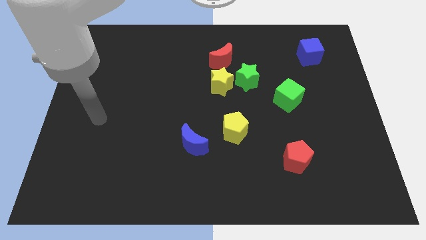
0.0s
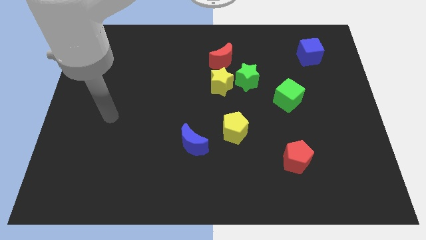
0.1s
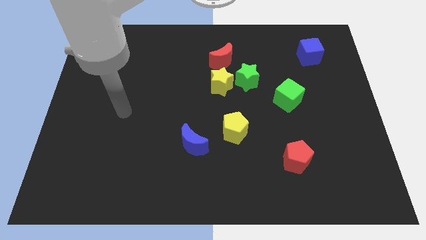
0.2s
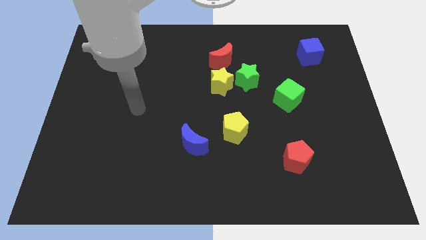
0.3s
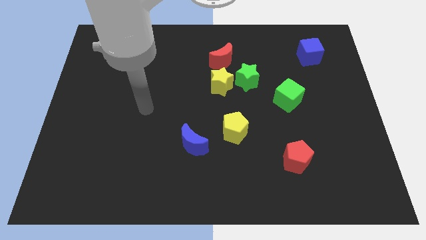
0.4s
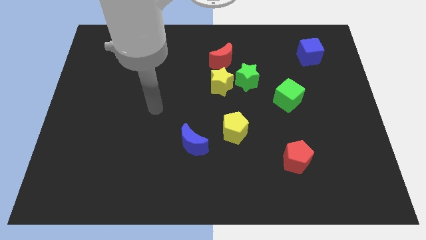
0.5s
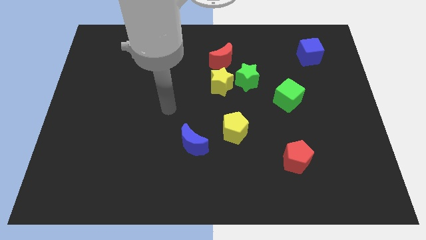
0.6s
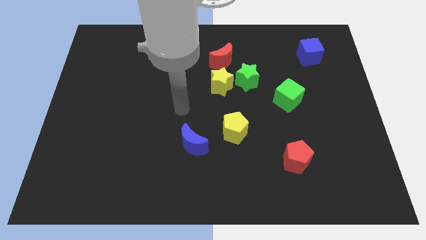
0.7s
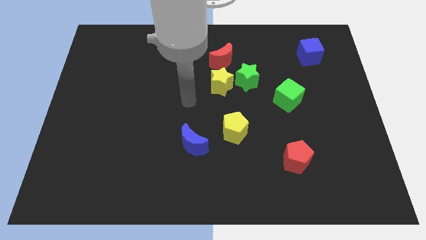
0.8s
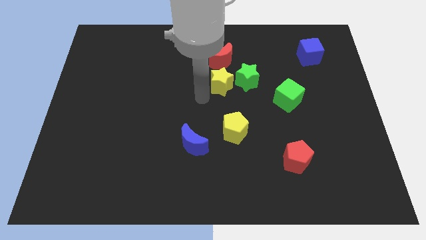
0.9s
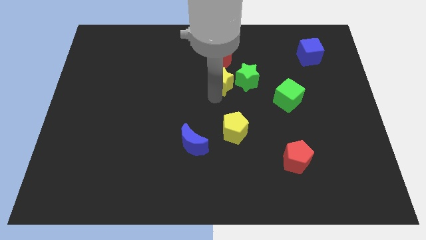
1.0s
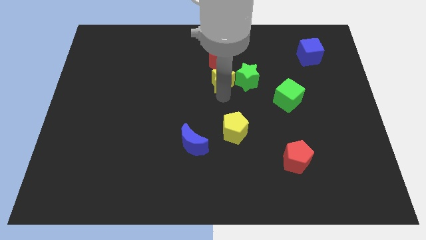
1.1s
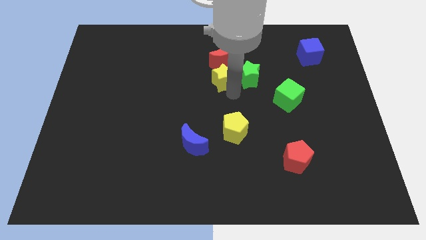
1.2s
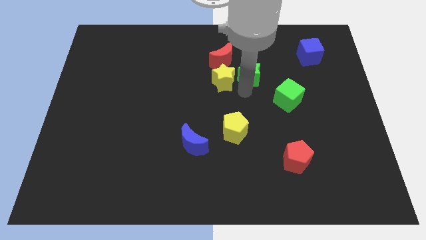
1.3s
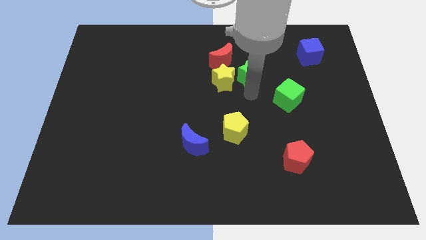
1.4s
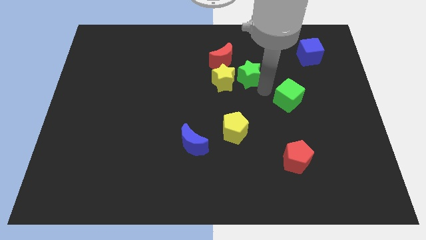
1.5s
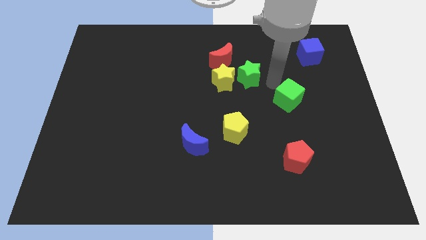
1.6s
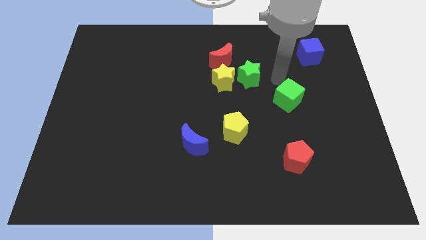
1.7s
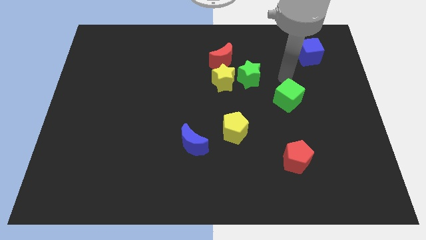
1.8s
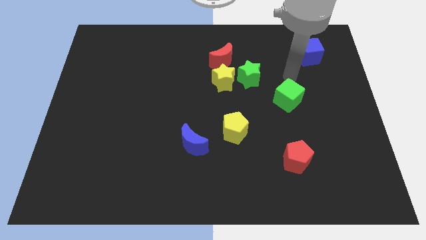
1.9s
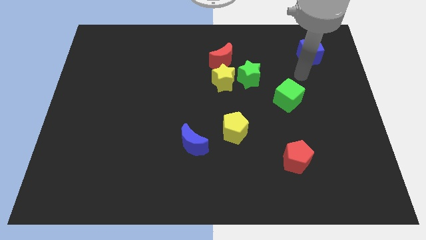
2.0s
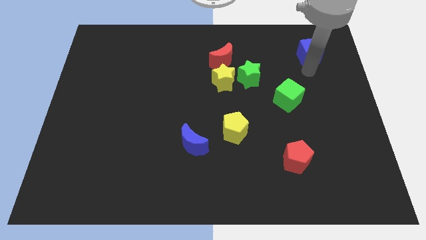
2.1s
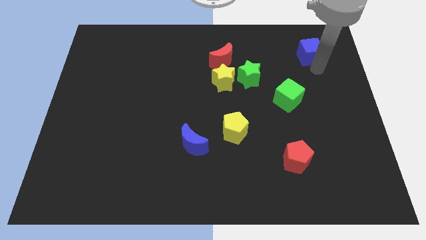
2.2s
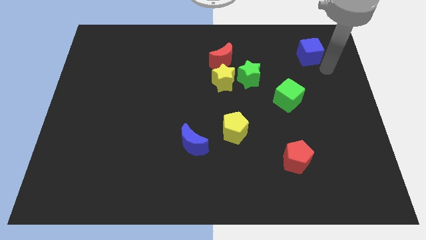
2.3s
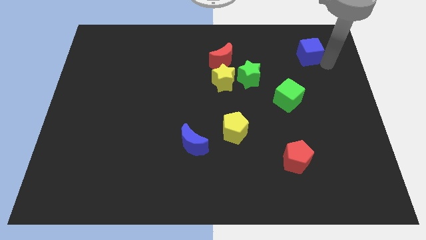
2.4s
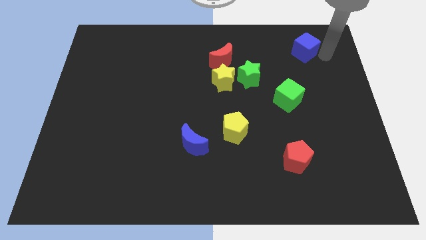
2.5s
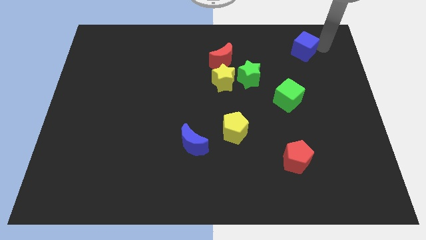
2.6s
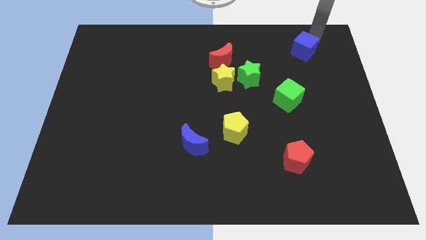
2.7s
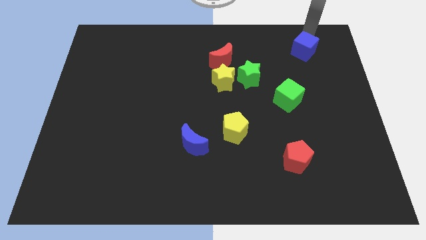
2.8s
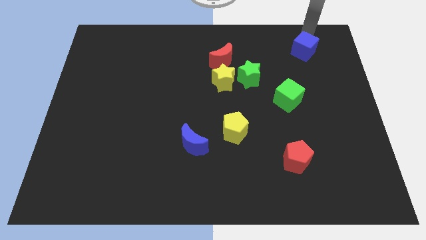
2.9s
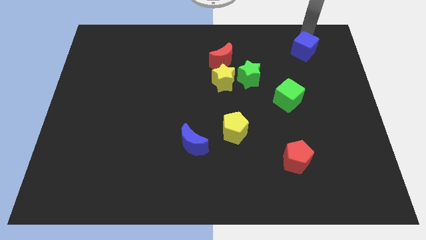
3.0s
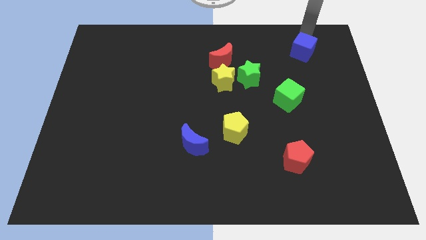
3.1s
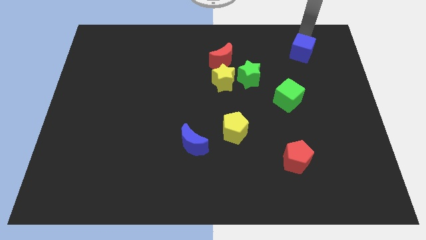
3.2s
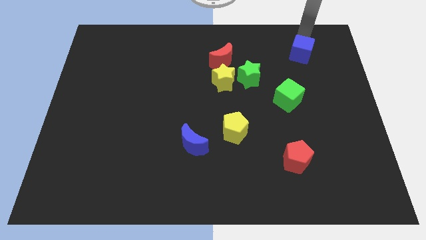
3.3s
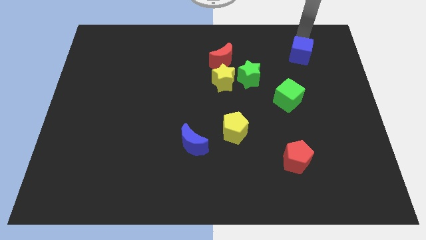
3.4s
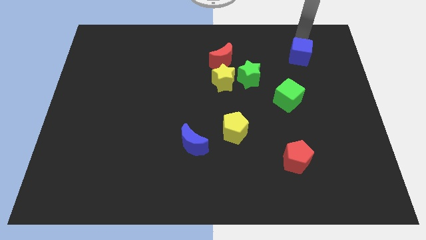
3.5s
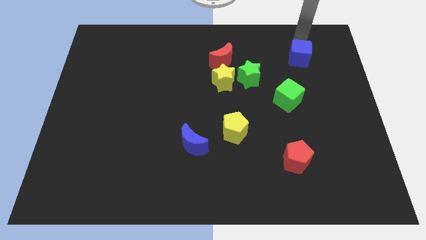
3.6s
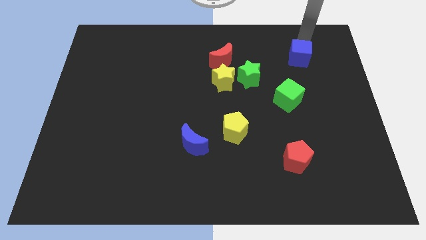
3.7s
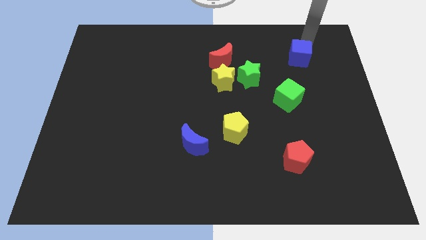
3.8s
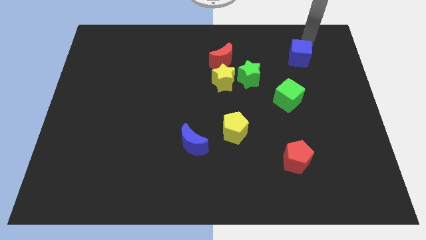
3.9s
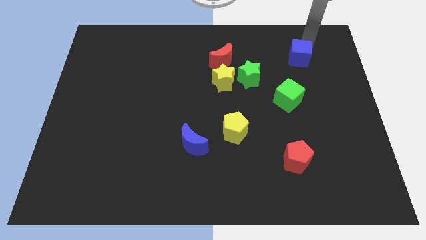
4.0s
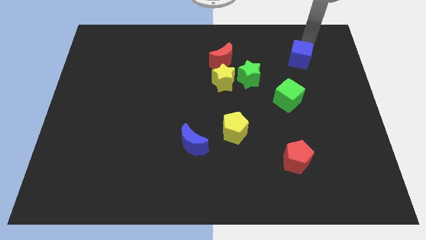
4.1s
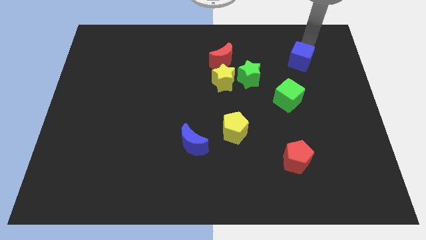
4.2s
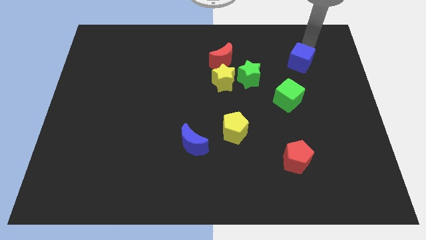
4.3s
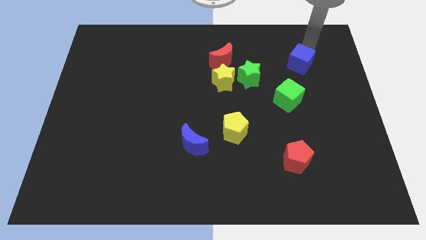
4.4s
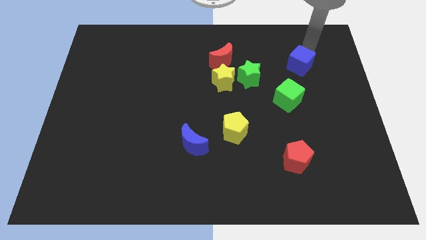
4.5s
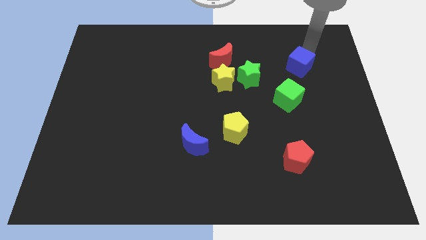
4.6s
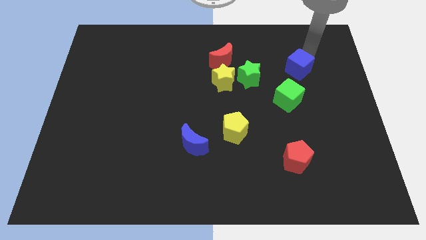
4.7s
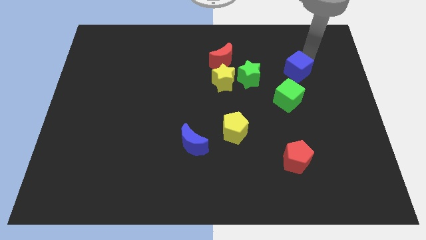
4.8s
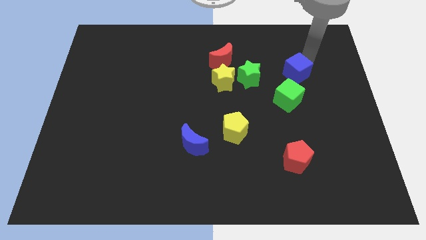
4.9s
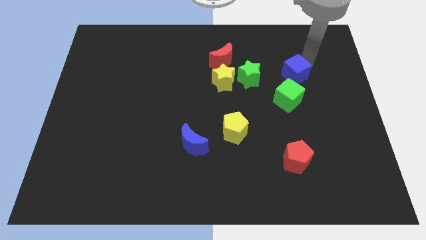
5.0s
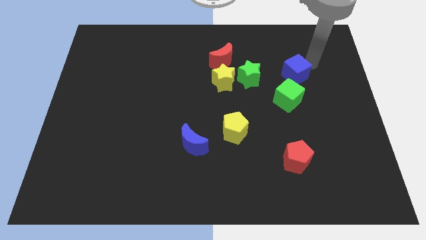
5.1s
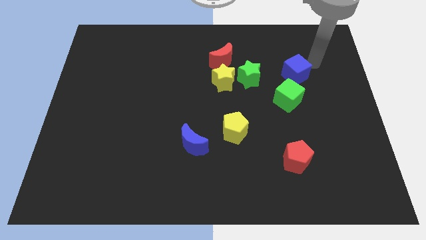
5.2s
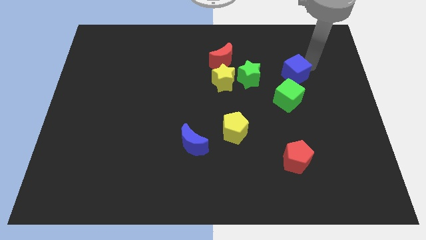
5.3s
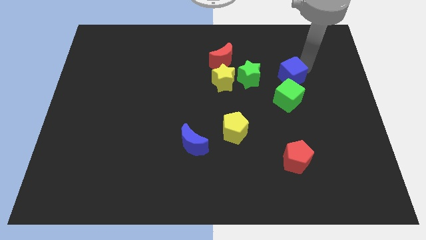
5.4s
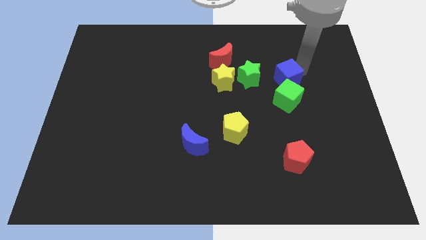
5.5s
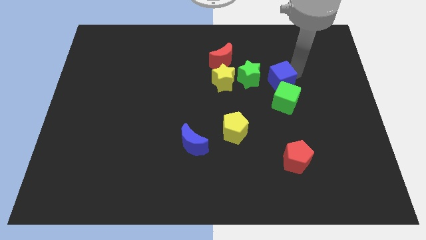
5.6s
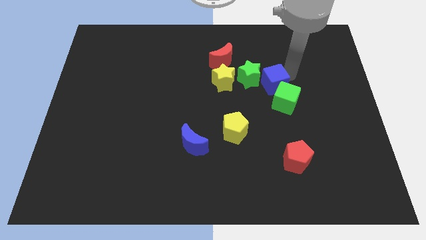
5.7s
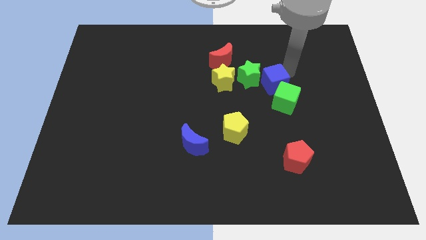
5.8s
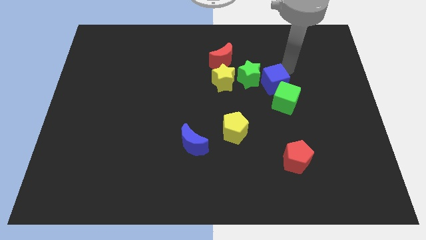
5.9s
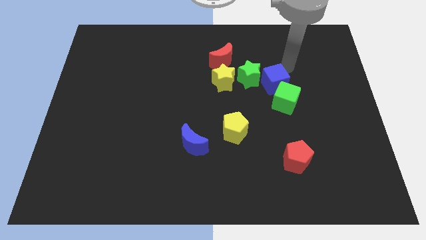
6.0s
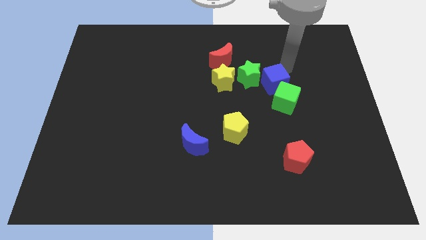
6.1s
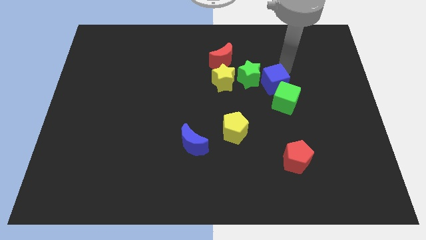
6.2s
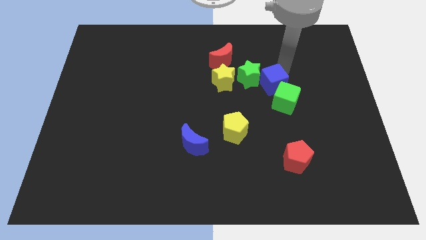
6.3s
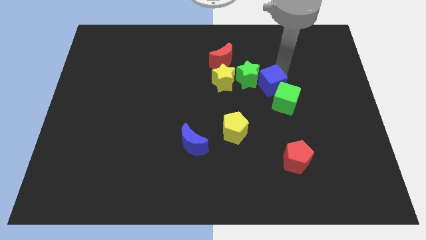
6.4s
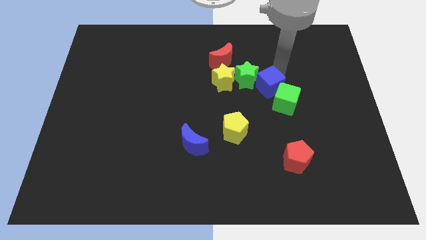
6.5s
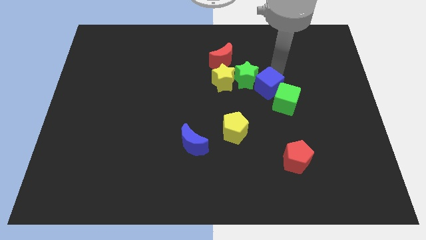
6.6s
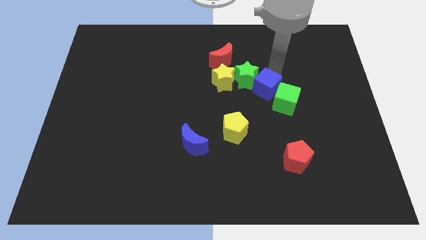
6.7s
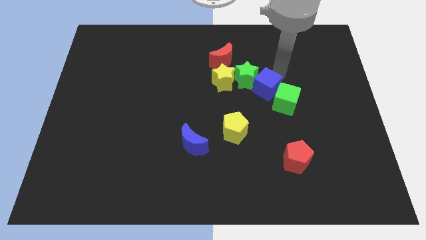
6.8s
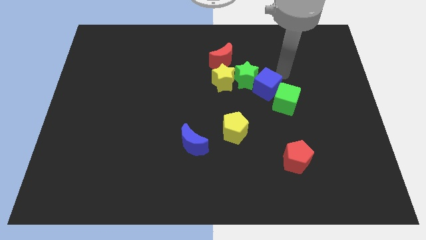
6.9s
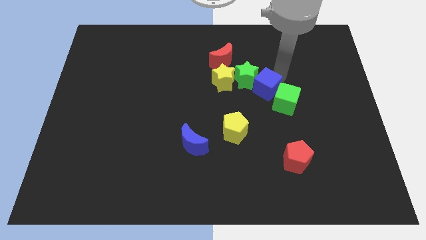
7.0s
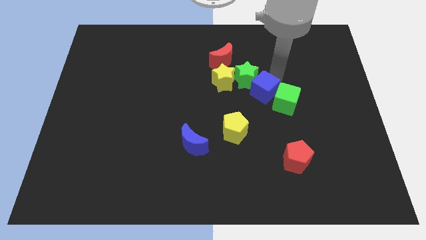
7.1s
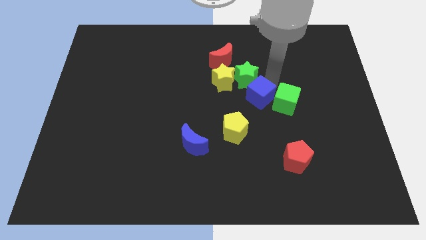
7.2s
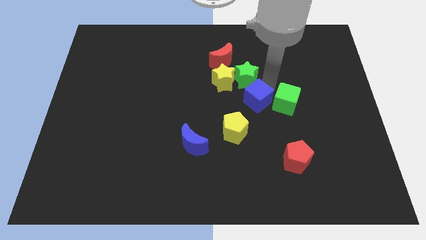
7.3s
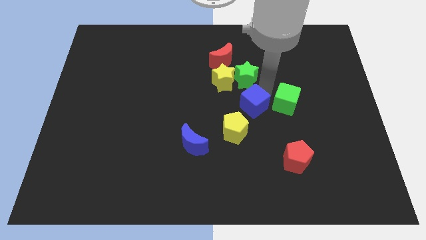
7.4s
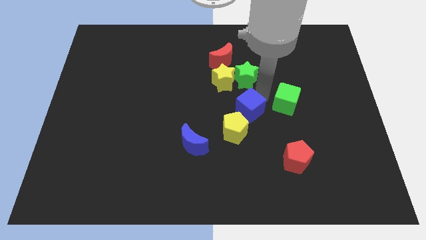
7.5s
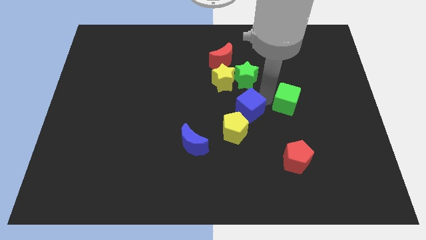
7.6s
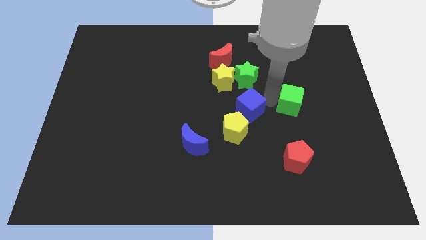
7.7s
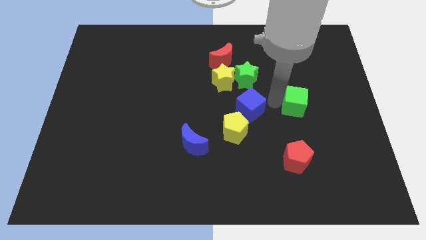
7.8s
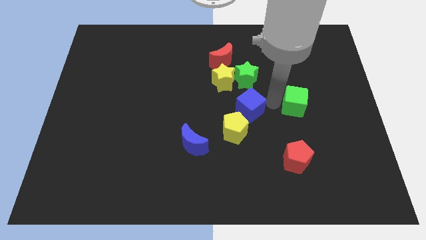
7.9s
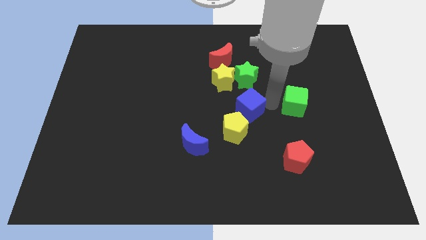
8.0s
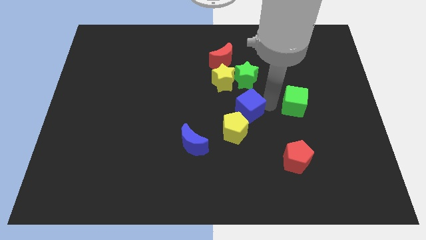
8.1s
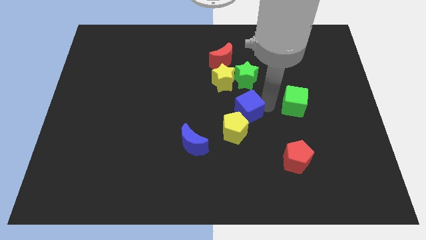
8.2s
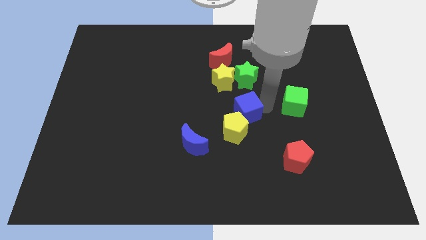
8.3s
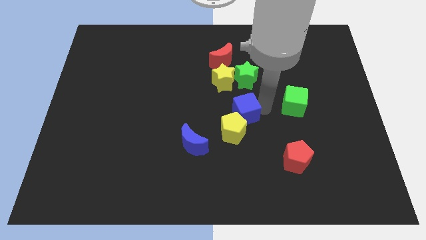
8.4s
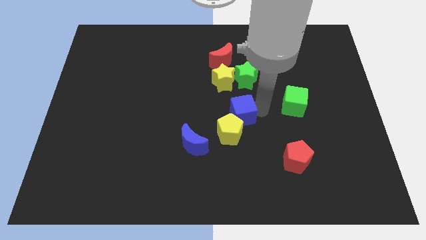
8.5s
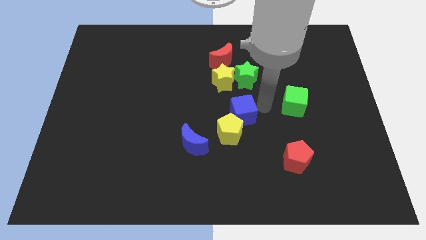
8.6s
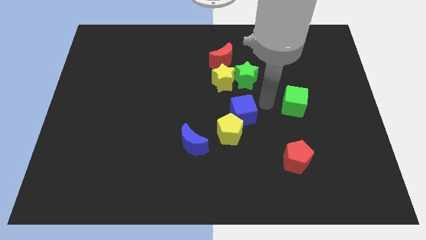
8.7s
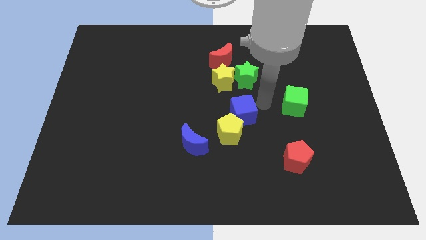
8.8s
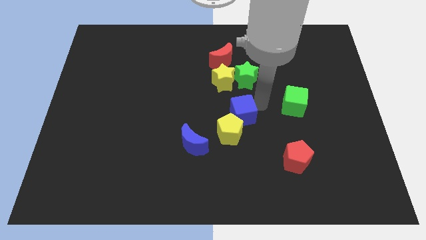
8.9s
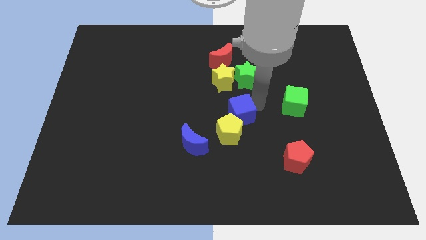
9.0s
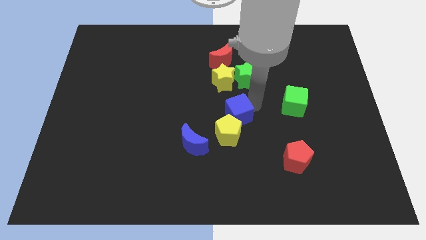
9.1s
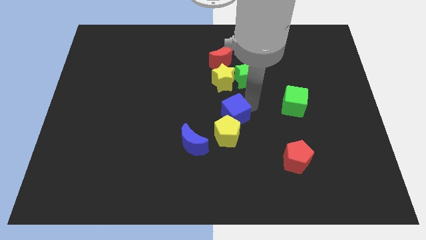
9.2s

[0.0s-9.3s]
move the blue cube to the top right of the blue moon
